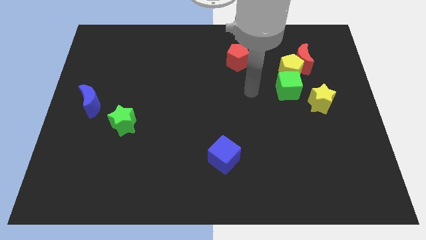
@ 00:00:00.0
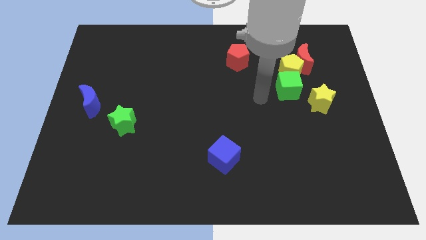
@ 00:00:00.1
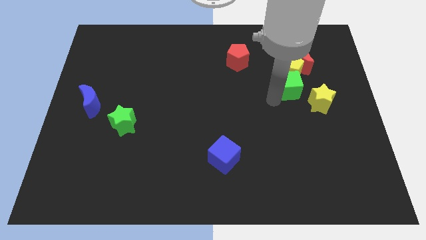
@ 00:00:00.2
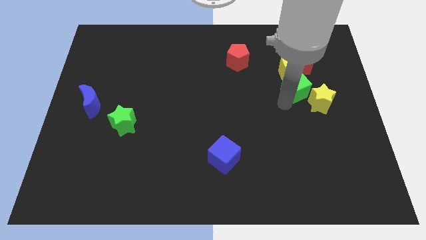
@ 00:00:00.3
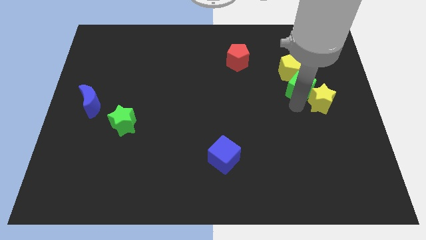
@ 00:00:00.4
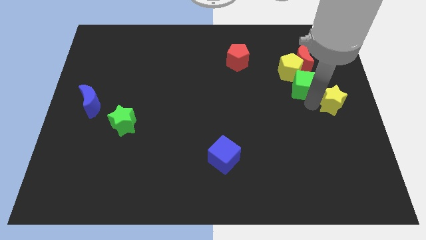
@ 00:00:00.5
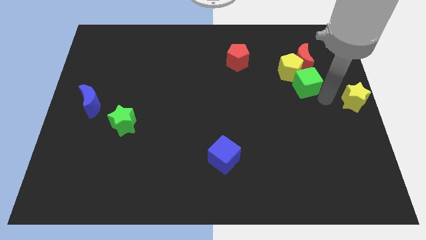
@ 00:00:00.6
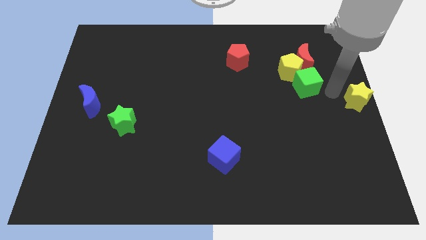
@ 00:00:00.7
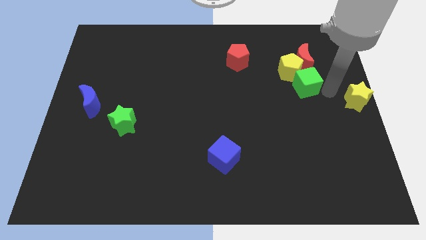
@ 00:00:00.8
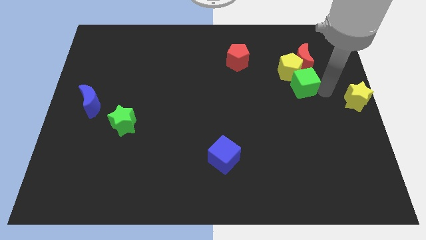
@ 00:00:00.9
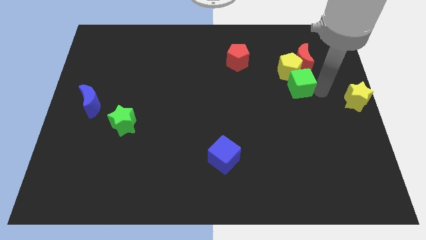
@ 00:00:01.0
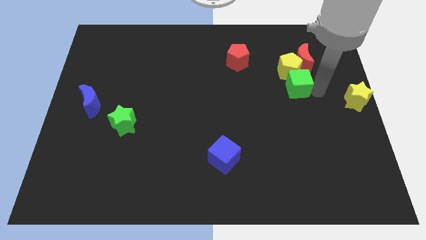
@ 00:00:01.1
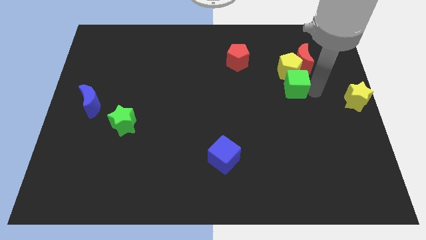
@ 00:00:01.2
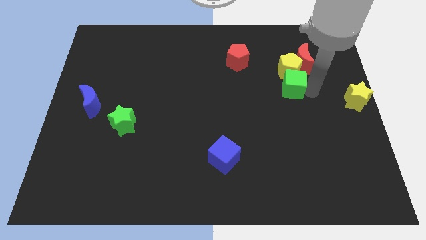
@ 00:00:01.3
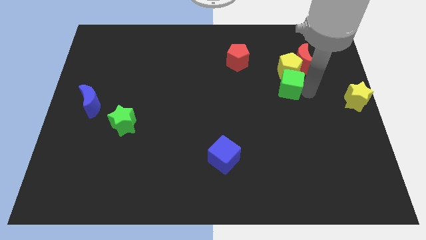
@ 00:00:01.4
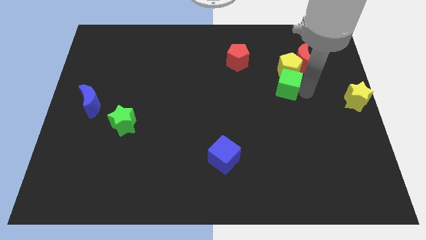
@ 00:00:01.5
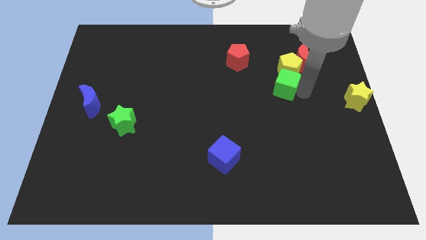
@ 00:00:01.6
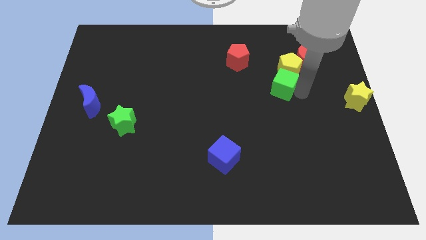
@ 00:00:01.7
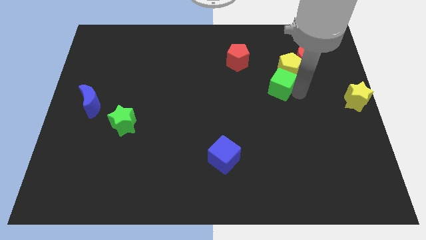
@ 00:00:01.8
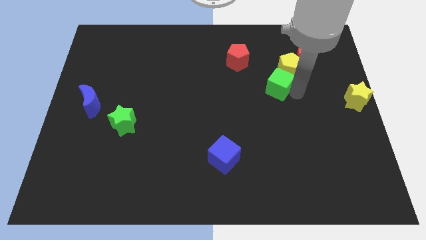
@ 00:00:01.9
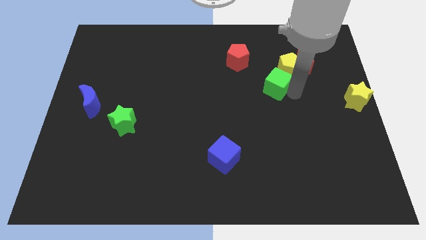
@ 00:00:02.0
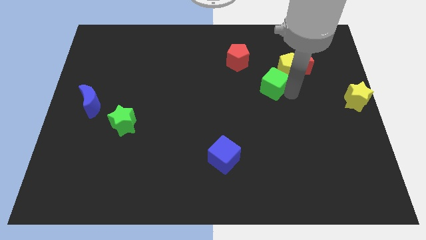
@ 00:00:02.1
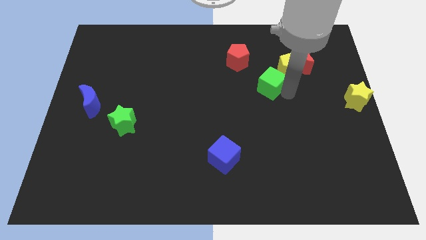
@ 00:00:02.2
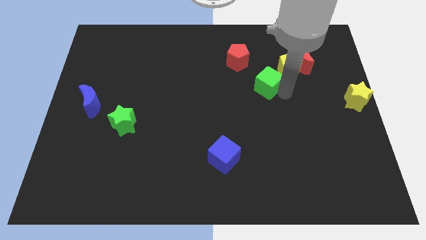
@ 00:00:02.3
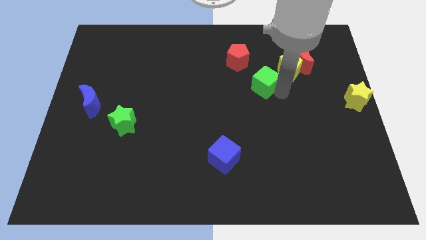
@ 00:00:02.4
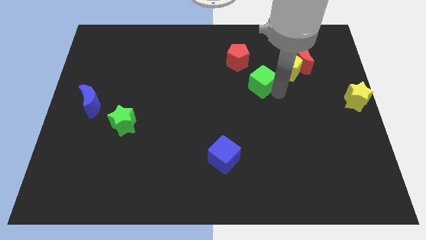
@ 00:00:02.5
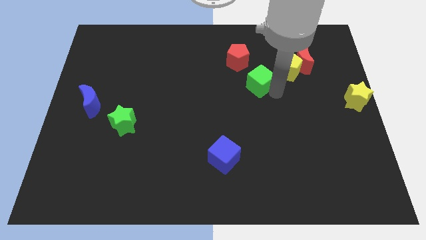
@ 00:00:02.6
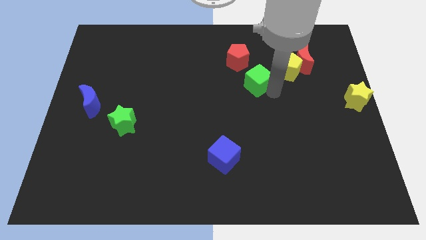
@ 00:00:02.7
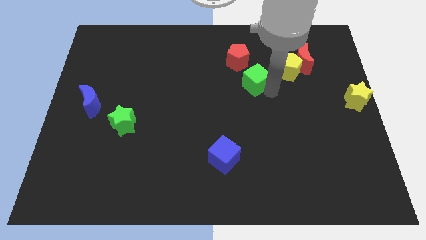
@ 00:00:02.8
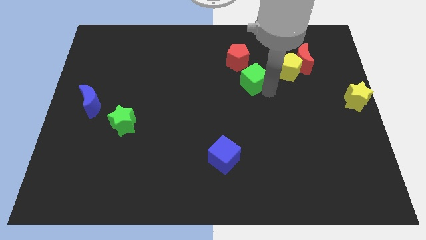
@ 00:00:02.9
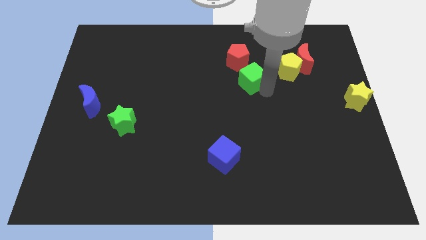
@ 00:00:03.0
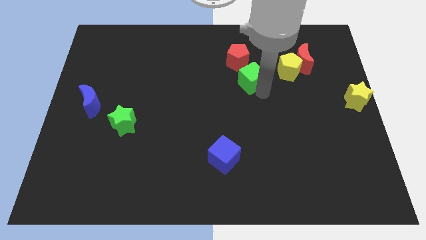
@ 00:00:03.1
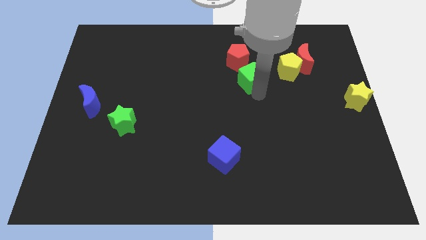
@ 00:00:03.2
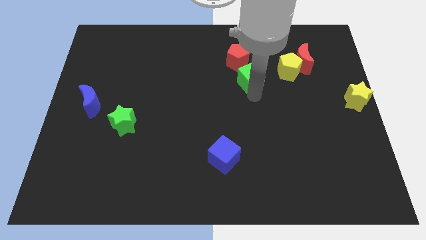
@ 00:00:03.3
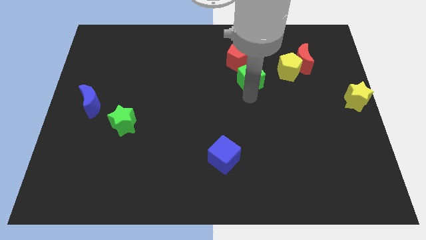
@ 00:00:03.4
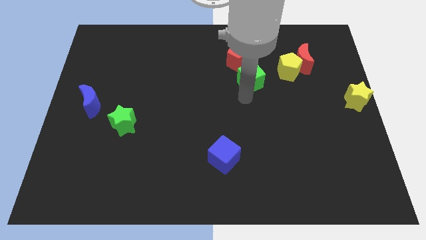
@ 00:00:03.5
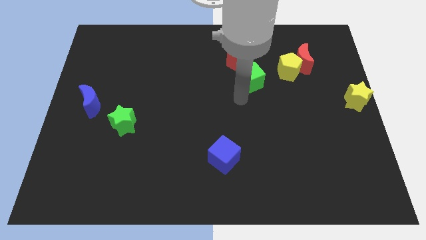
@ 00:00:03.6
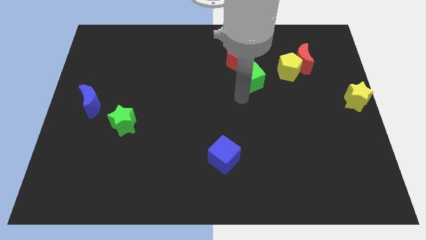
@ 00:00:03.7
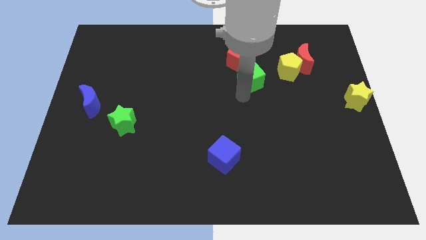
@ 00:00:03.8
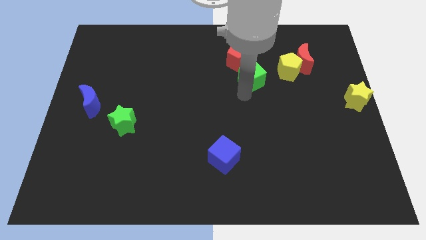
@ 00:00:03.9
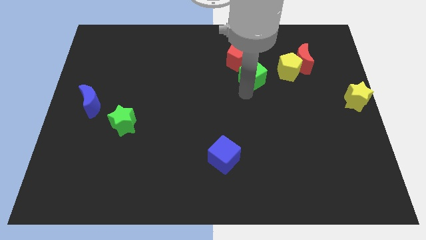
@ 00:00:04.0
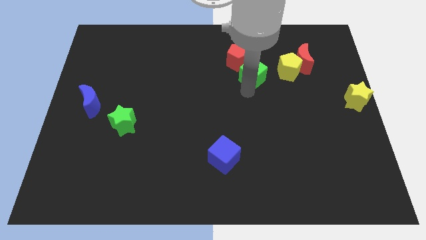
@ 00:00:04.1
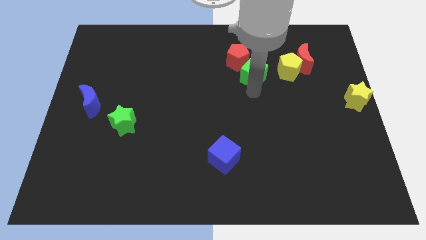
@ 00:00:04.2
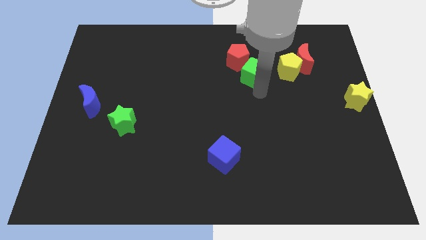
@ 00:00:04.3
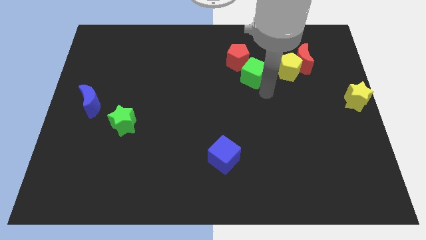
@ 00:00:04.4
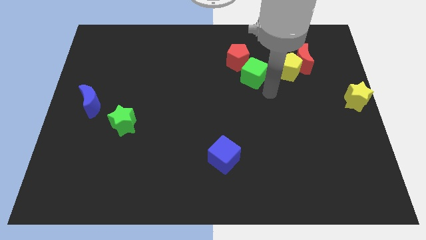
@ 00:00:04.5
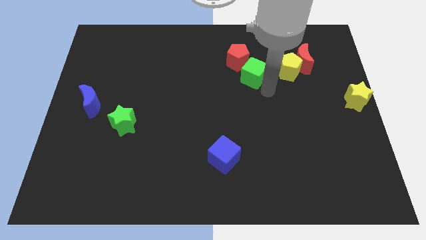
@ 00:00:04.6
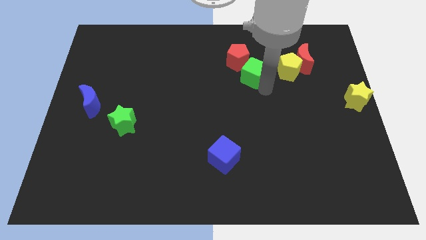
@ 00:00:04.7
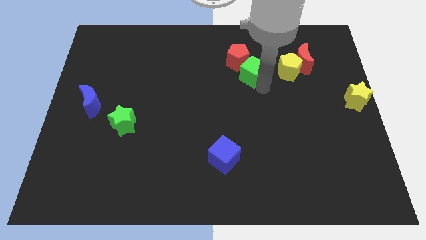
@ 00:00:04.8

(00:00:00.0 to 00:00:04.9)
push the green cube towards the red pentagon

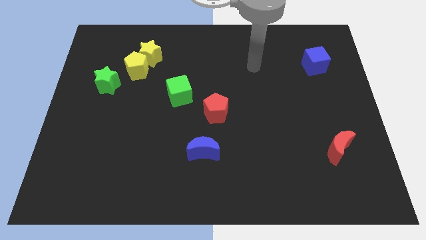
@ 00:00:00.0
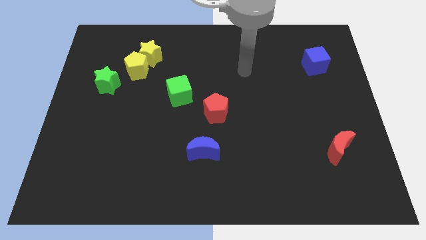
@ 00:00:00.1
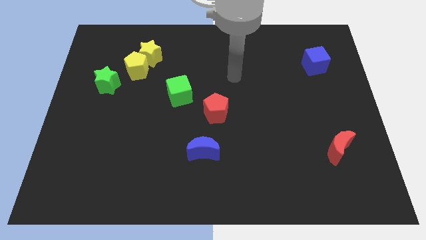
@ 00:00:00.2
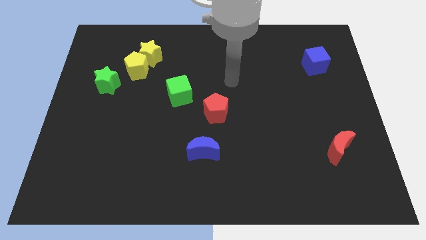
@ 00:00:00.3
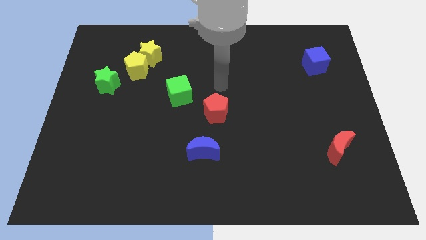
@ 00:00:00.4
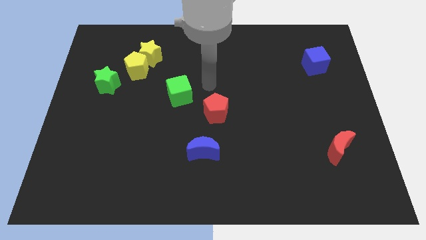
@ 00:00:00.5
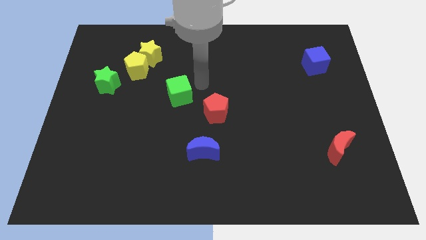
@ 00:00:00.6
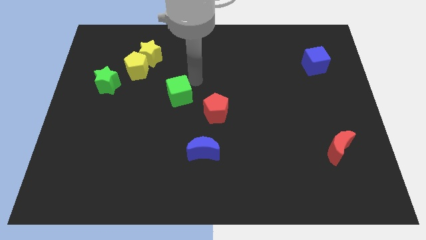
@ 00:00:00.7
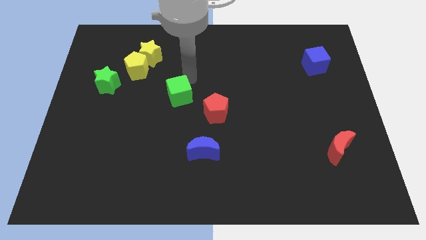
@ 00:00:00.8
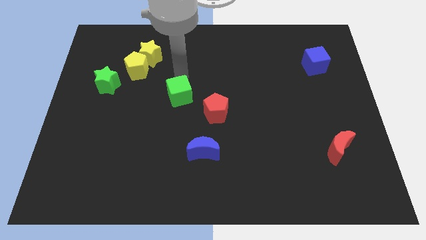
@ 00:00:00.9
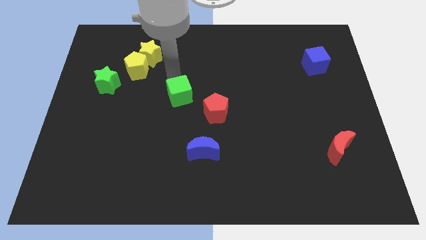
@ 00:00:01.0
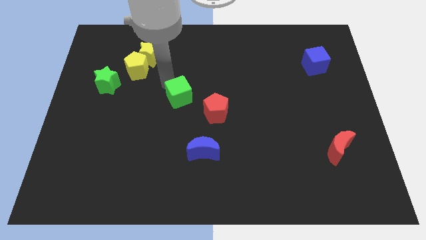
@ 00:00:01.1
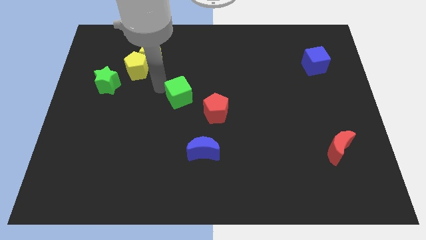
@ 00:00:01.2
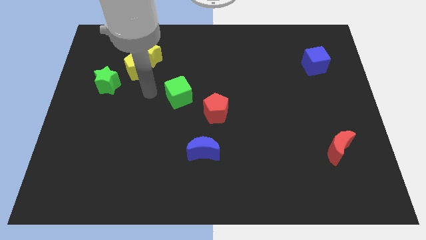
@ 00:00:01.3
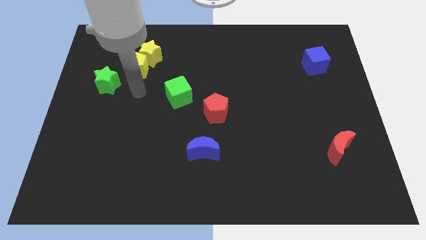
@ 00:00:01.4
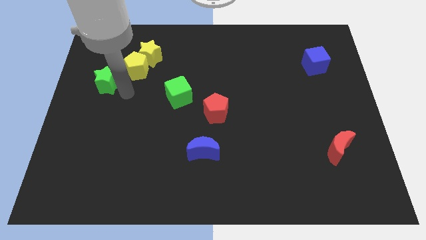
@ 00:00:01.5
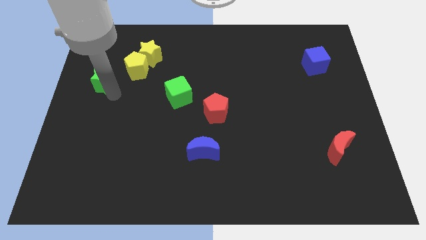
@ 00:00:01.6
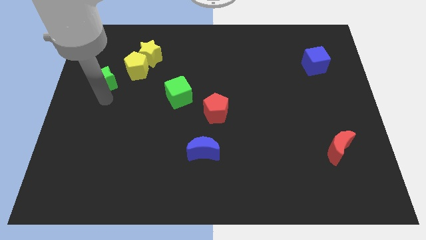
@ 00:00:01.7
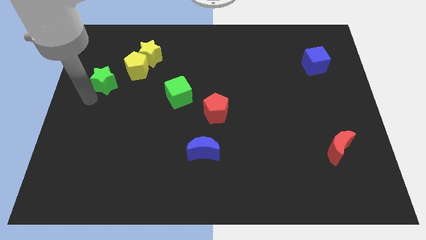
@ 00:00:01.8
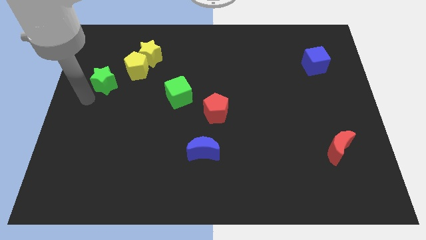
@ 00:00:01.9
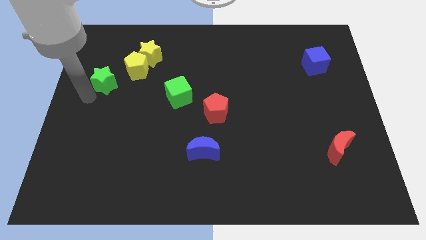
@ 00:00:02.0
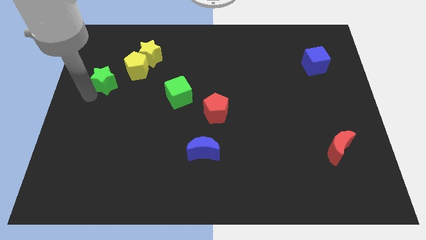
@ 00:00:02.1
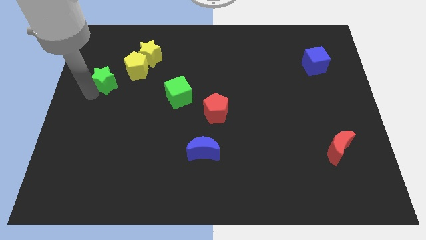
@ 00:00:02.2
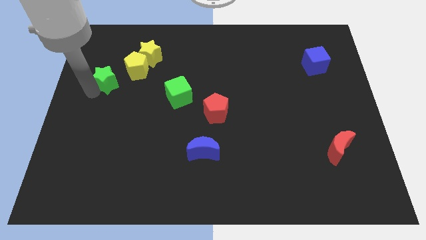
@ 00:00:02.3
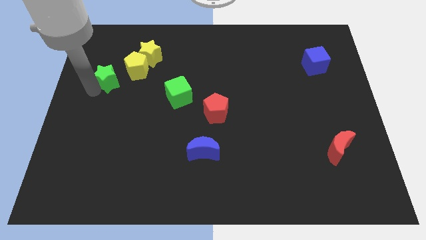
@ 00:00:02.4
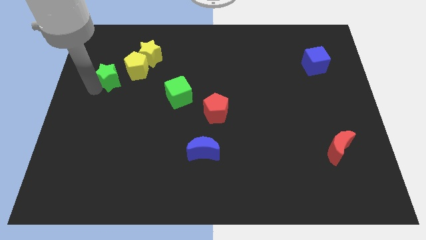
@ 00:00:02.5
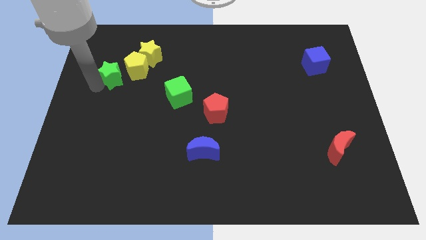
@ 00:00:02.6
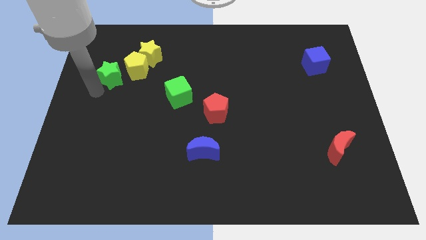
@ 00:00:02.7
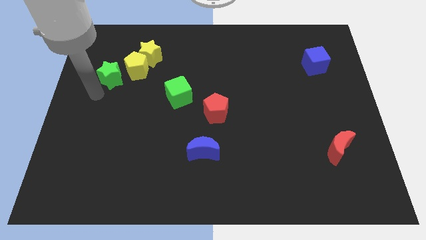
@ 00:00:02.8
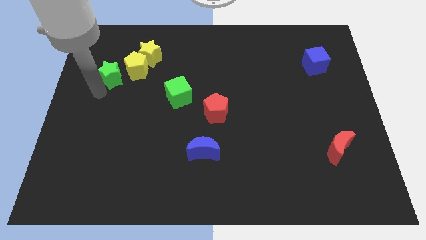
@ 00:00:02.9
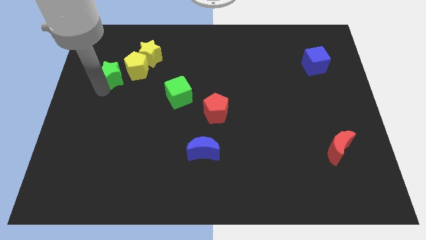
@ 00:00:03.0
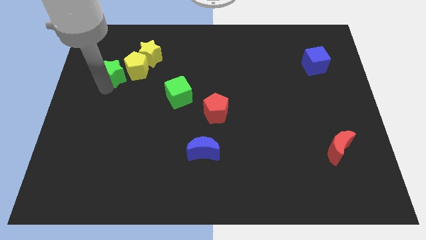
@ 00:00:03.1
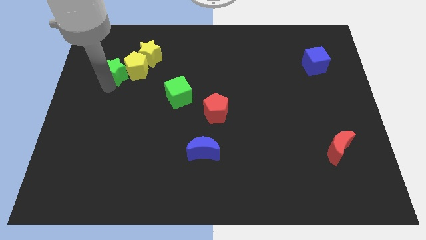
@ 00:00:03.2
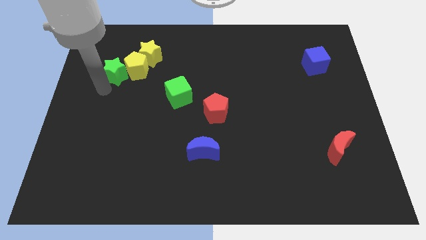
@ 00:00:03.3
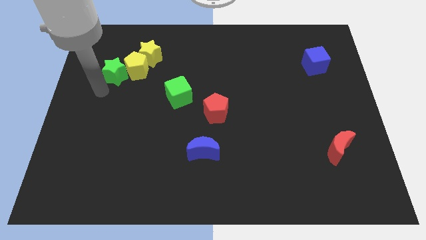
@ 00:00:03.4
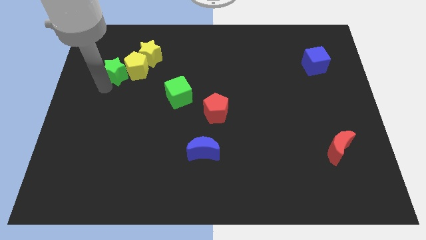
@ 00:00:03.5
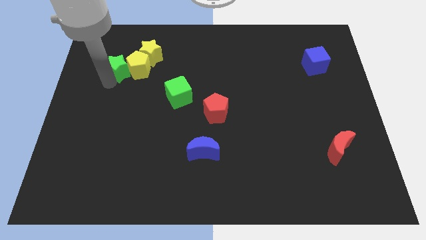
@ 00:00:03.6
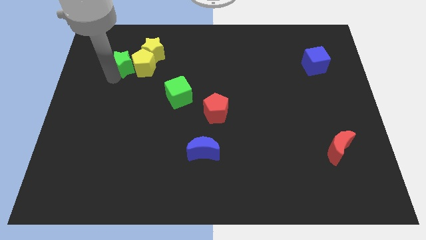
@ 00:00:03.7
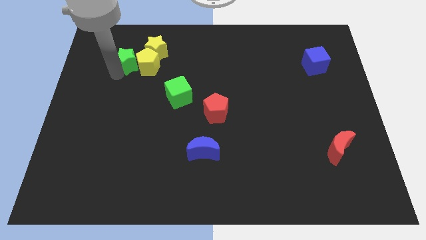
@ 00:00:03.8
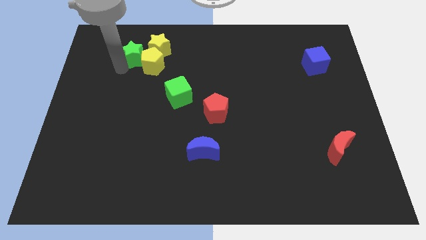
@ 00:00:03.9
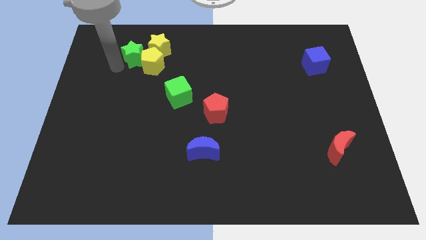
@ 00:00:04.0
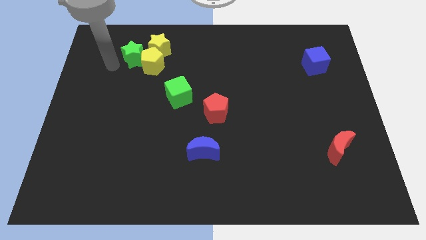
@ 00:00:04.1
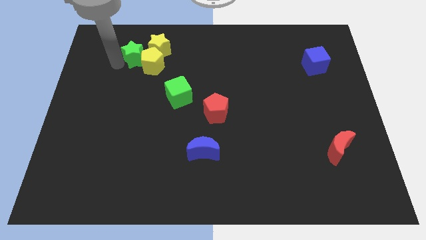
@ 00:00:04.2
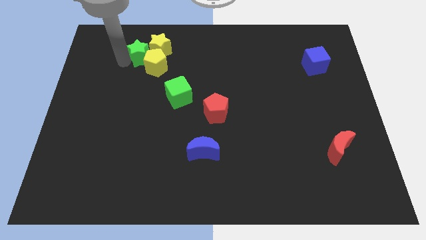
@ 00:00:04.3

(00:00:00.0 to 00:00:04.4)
slide the green star towards the yellow star
